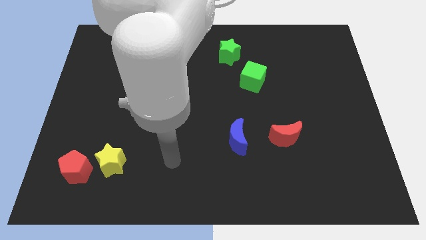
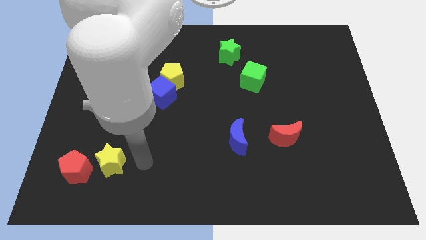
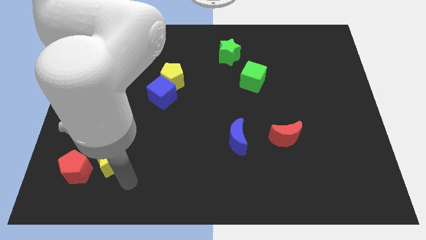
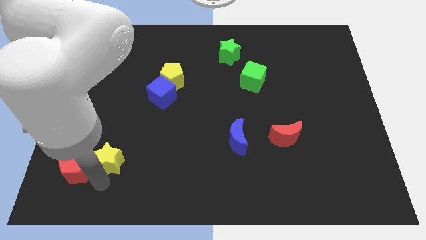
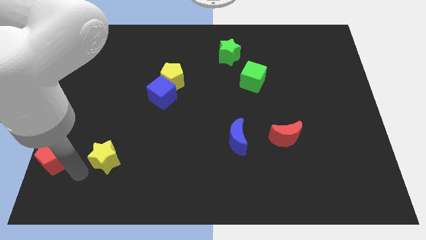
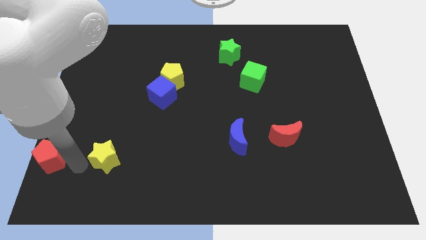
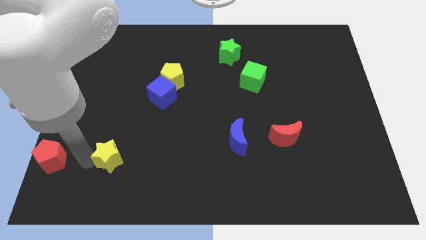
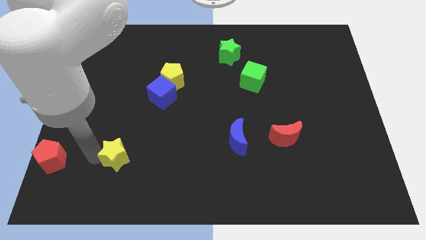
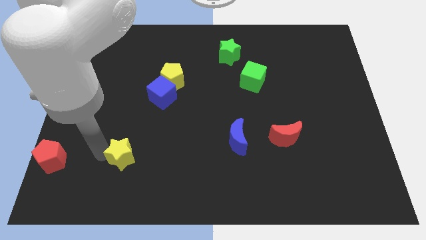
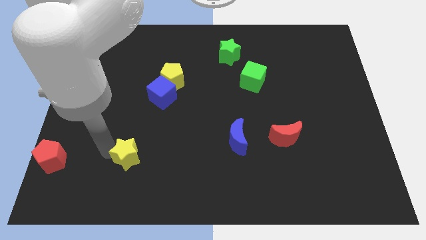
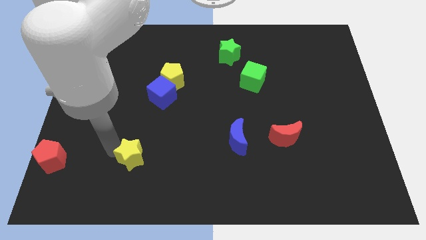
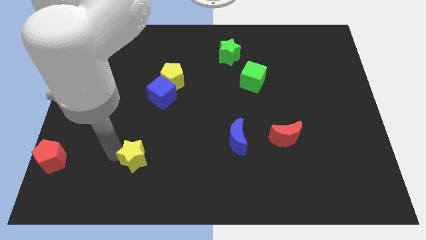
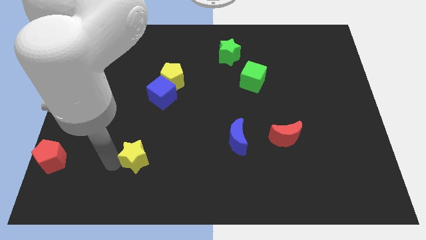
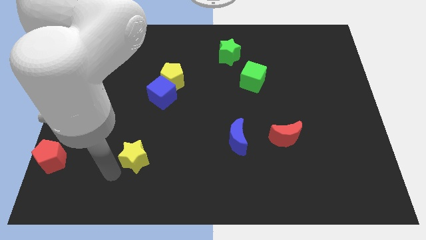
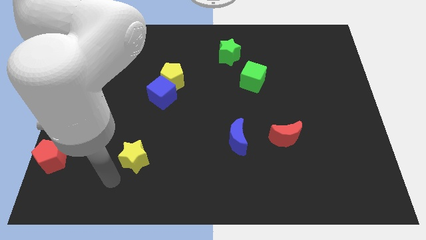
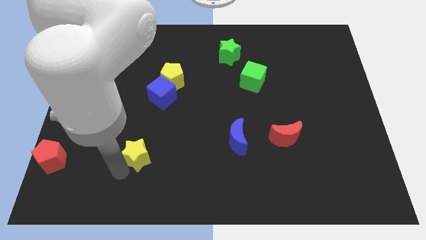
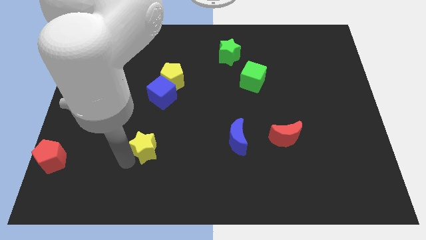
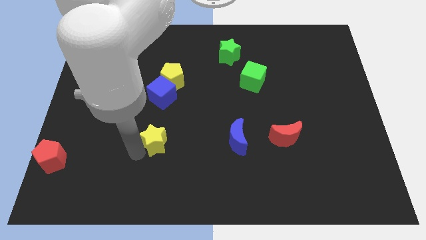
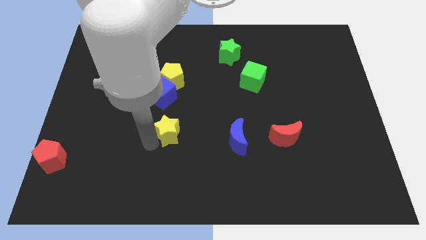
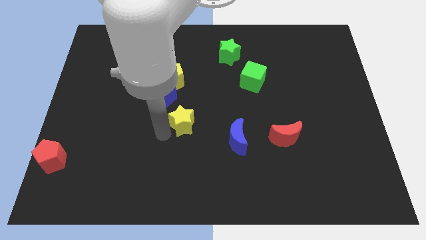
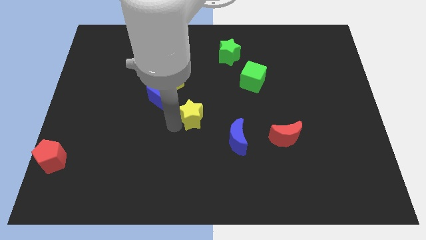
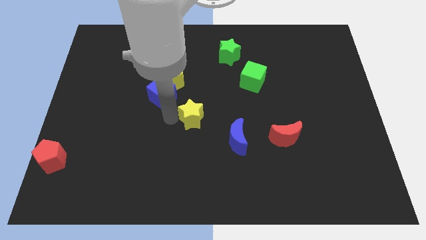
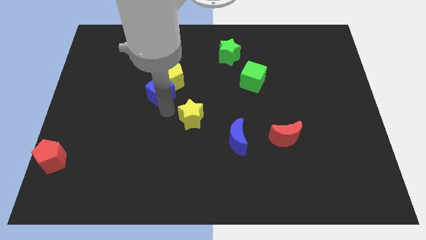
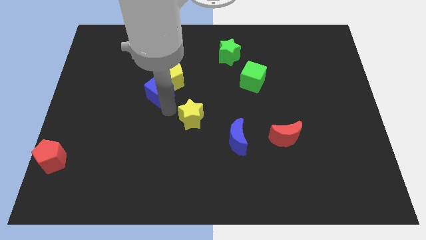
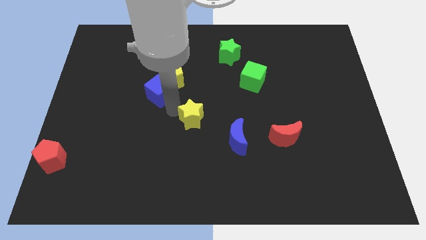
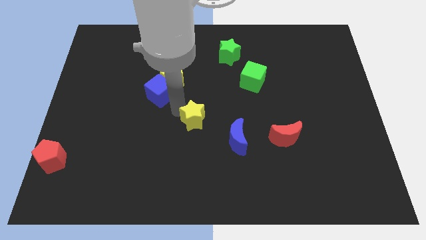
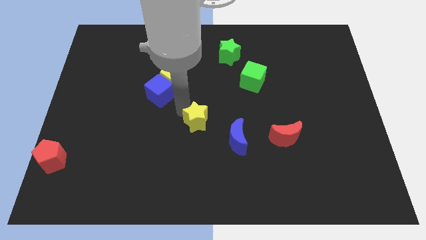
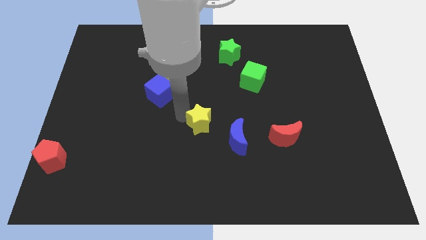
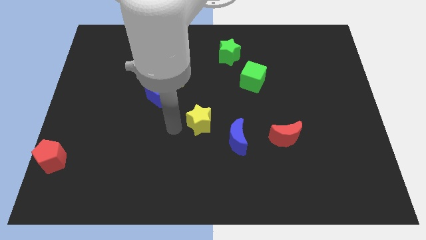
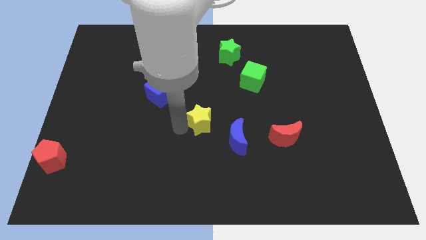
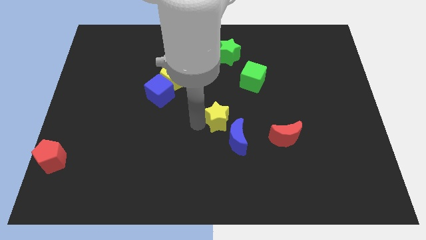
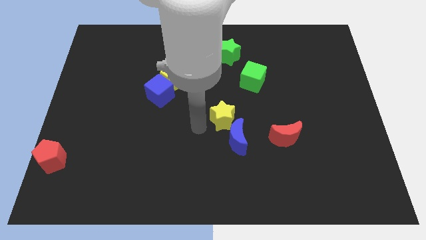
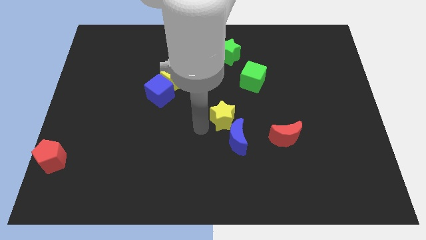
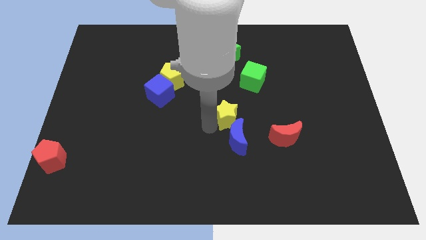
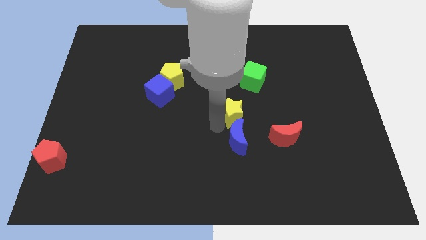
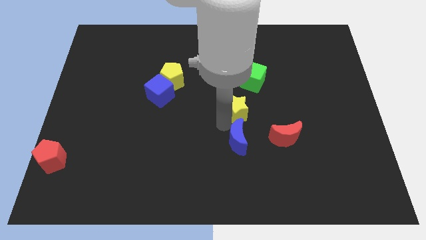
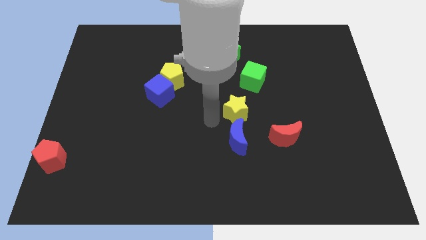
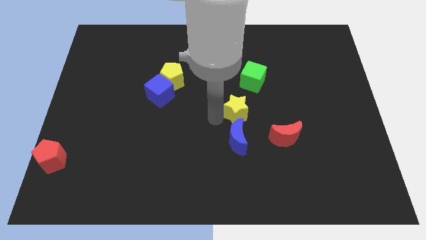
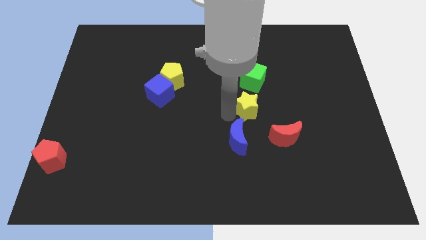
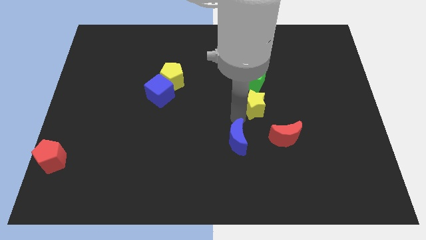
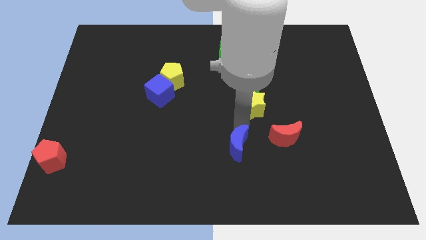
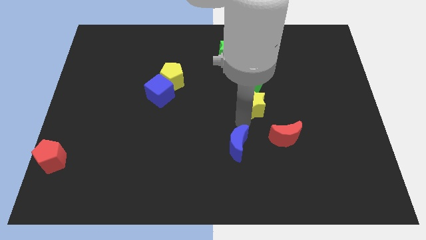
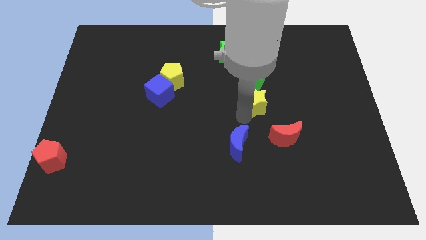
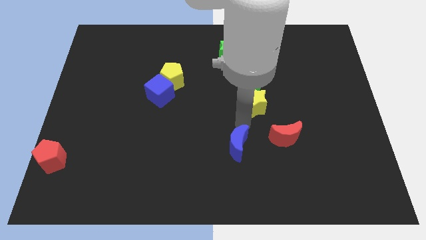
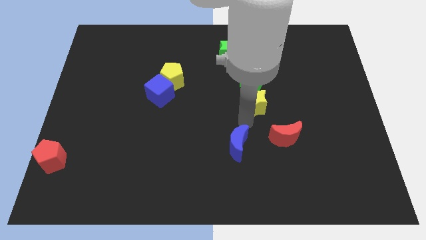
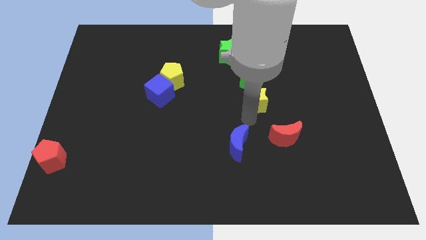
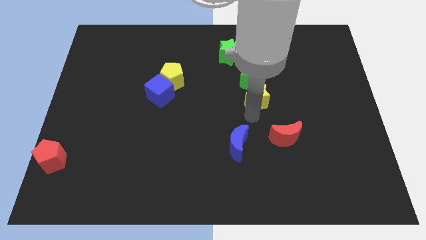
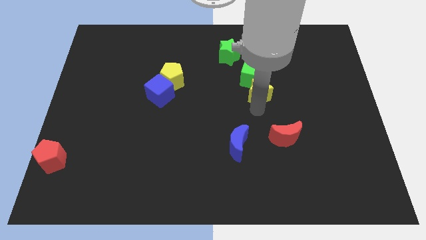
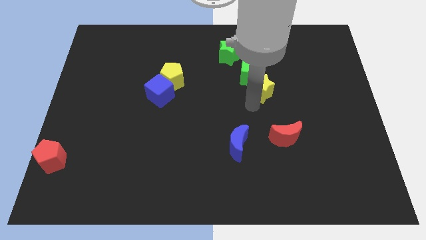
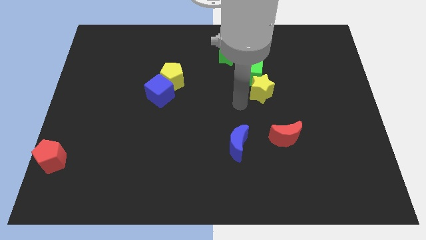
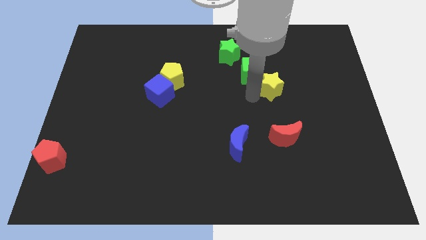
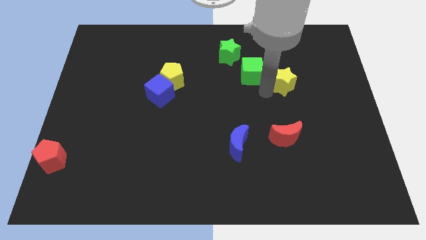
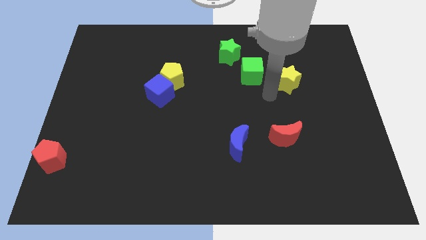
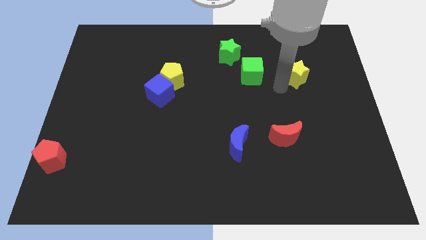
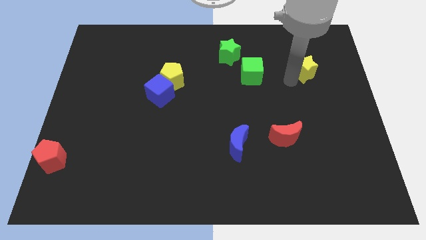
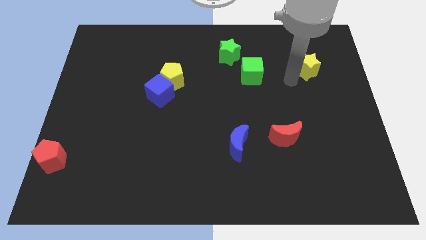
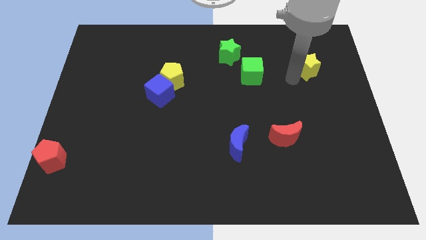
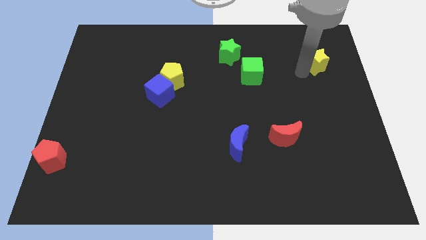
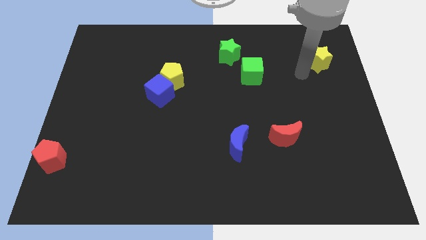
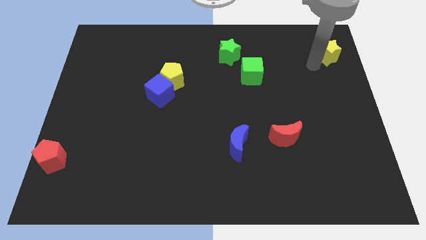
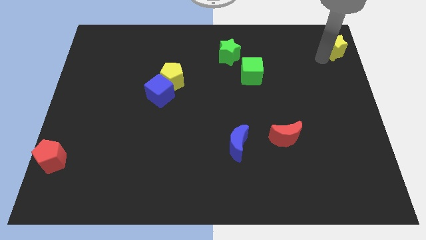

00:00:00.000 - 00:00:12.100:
slide the yellow star to the top right

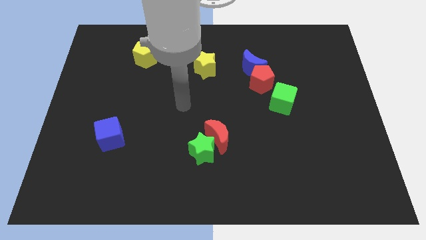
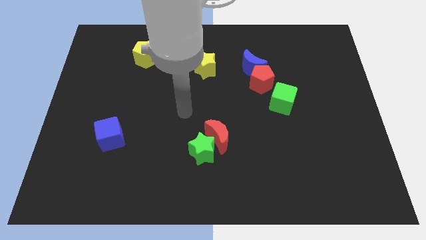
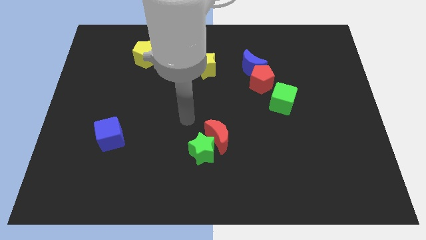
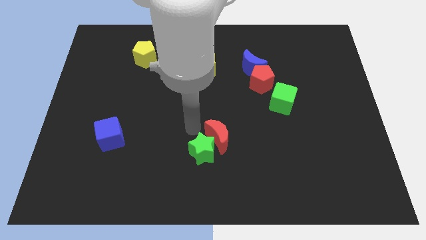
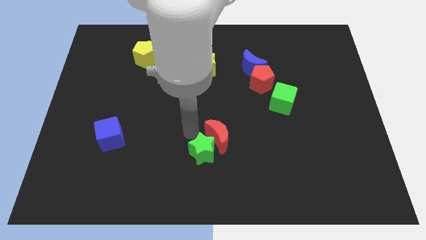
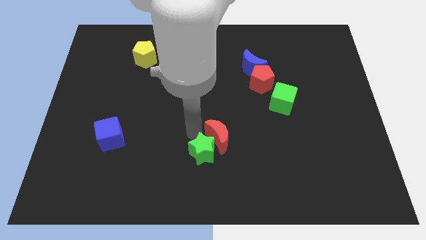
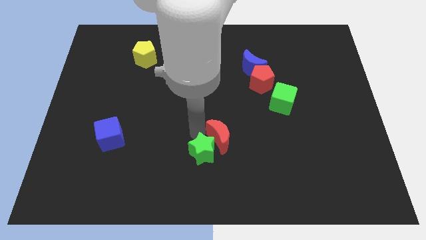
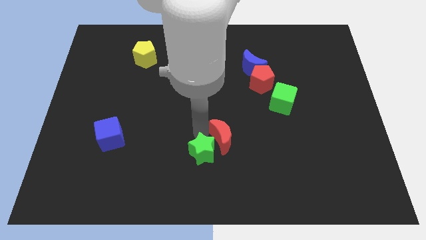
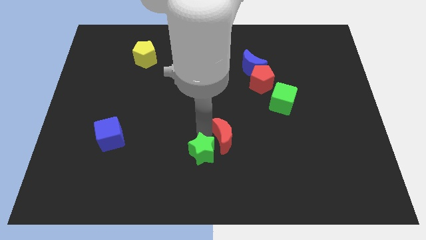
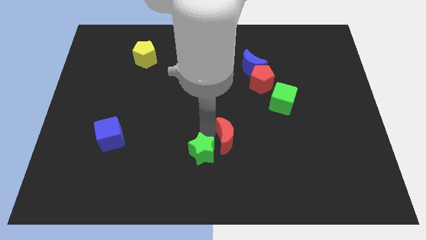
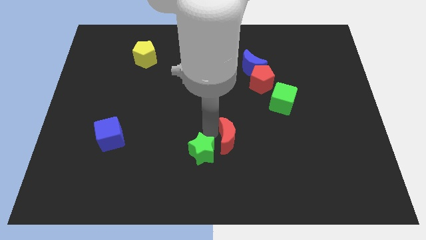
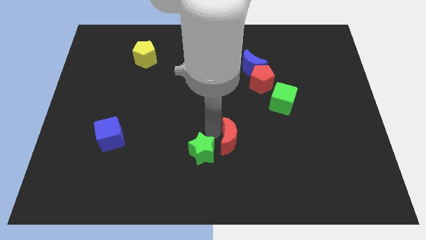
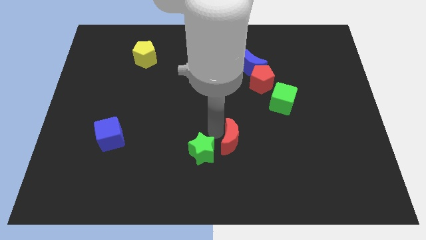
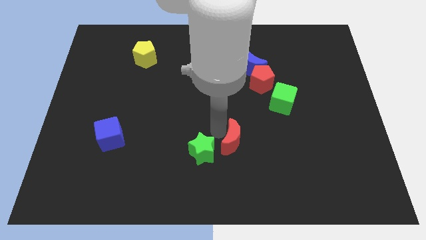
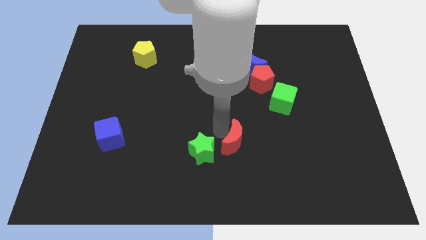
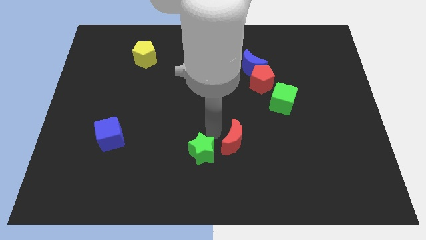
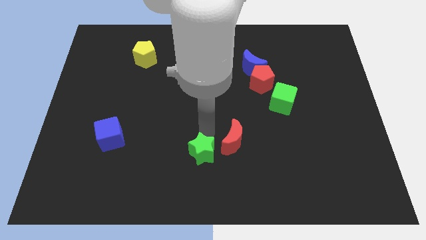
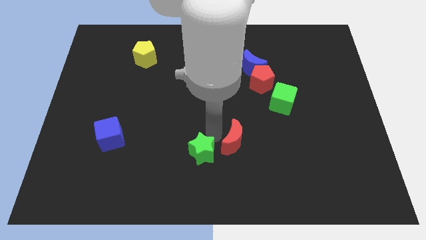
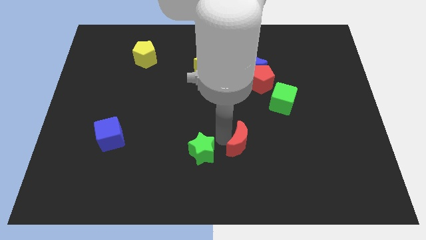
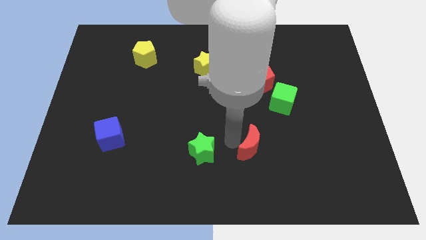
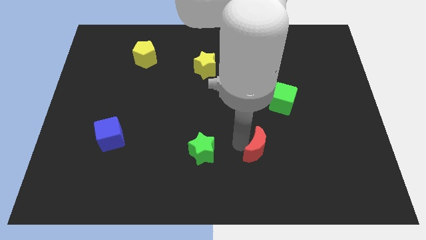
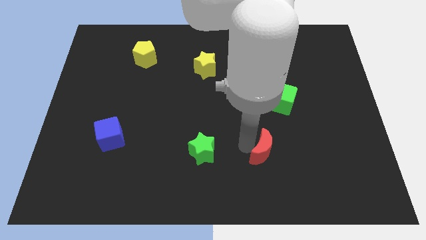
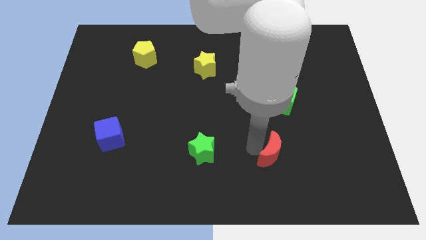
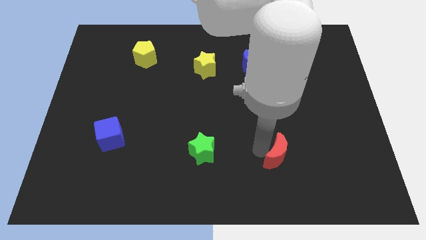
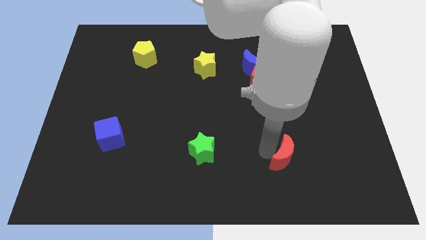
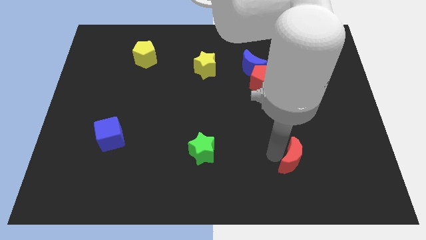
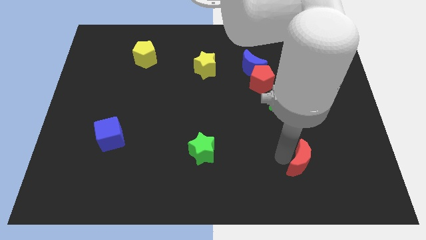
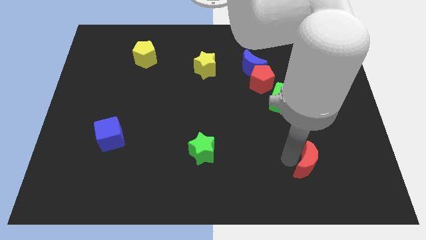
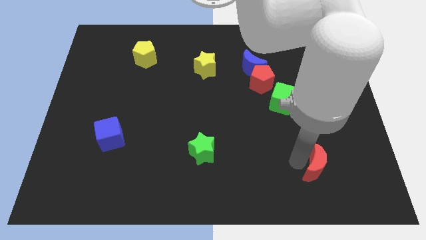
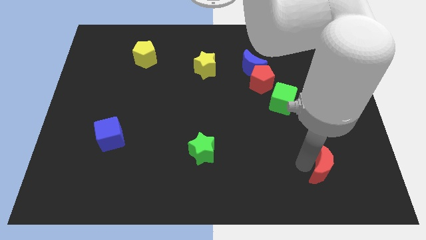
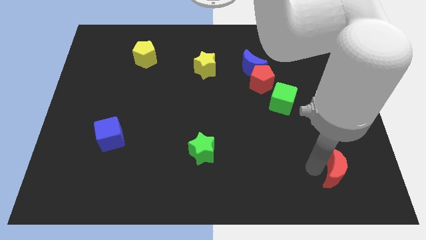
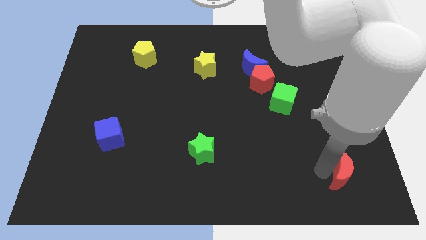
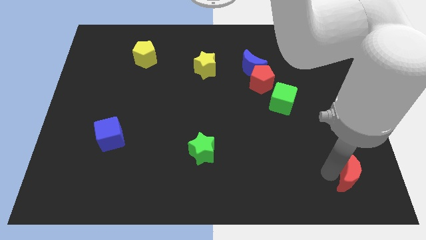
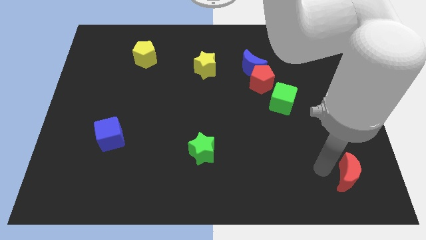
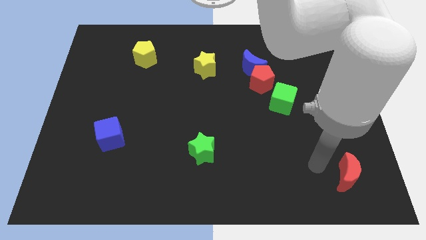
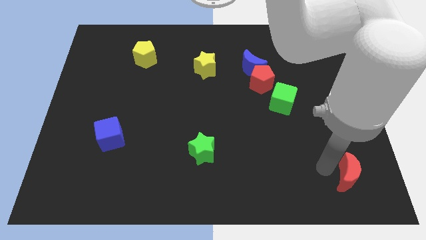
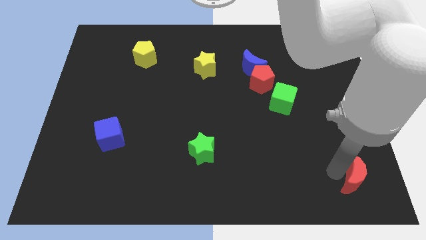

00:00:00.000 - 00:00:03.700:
push the red moon to the lower right corner
